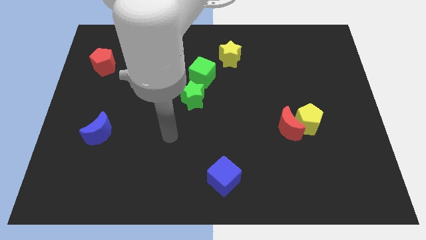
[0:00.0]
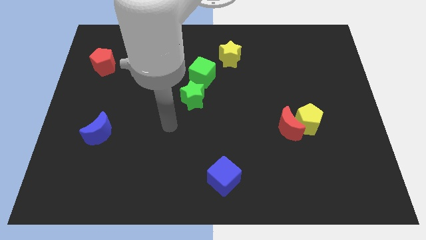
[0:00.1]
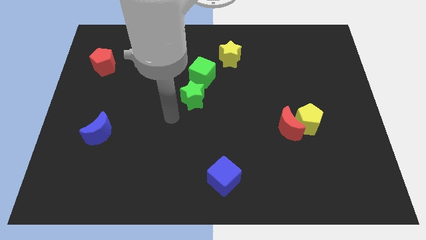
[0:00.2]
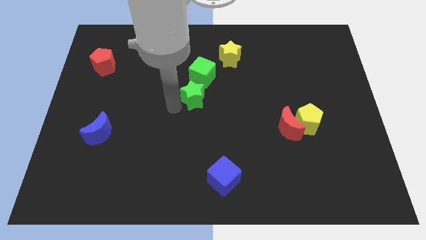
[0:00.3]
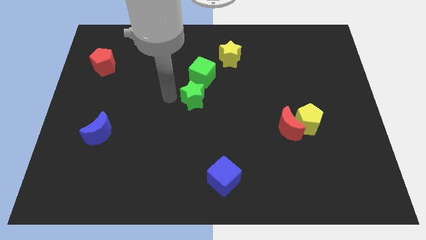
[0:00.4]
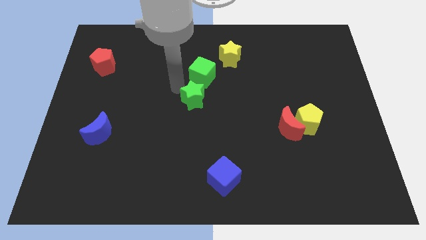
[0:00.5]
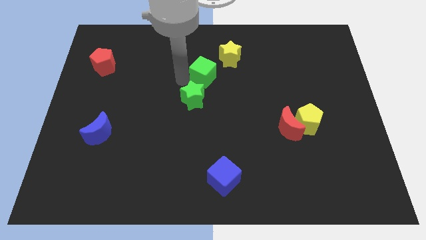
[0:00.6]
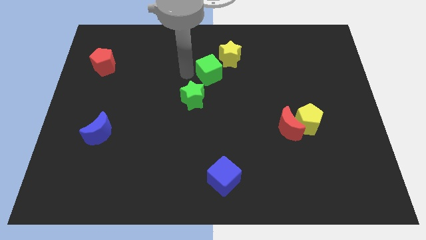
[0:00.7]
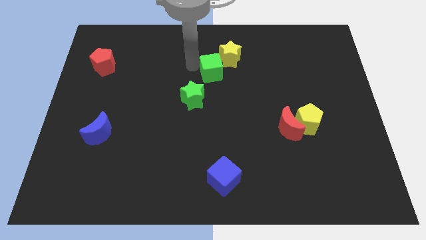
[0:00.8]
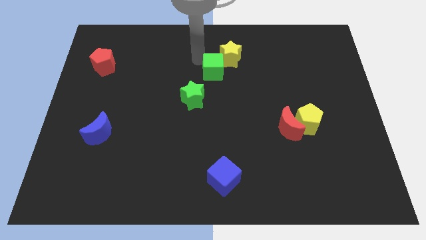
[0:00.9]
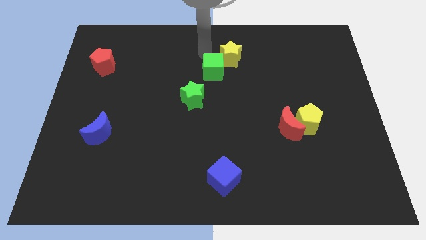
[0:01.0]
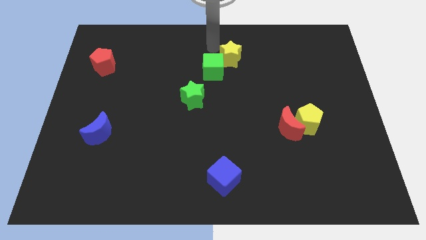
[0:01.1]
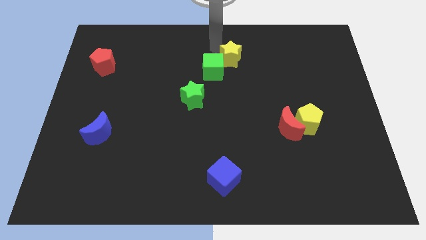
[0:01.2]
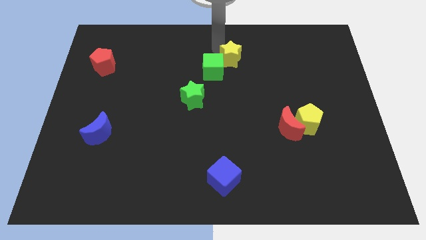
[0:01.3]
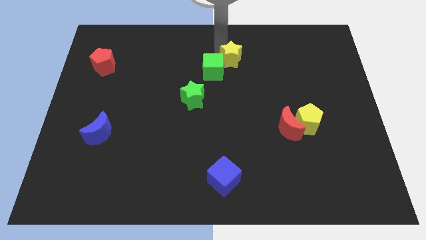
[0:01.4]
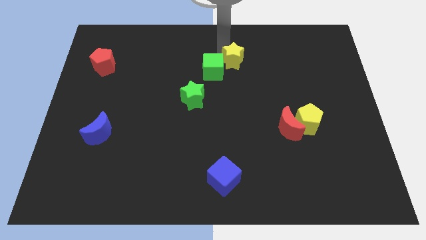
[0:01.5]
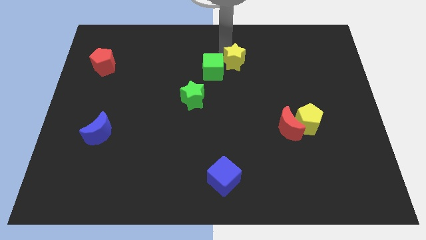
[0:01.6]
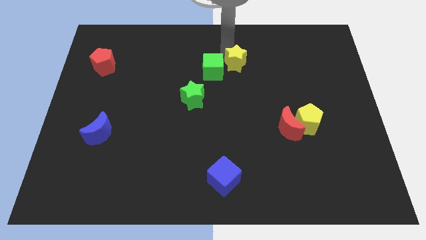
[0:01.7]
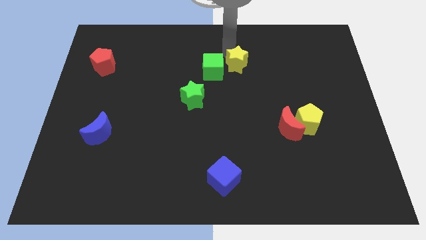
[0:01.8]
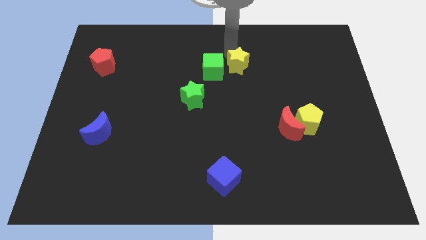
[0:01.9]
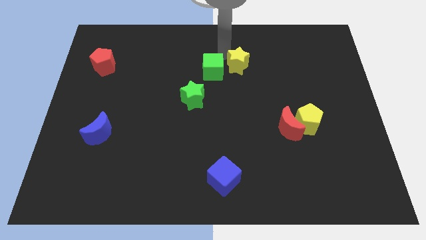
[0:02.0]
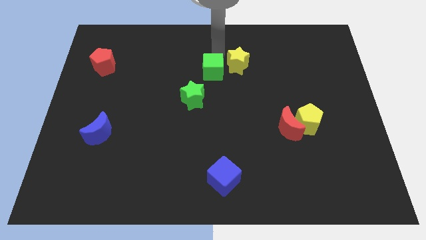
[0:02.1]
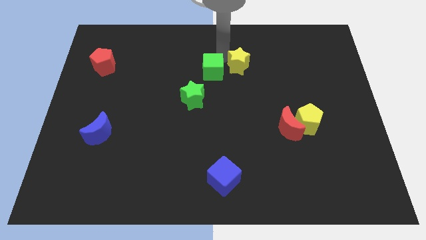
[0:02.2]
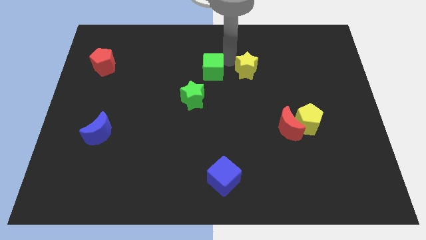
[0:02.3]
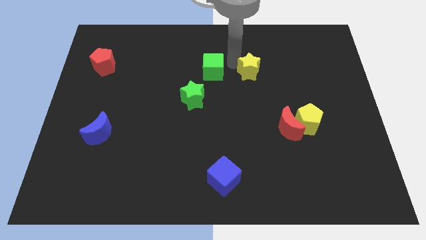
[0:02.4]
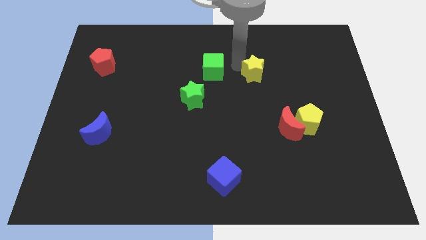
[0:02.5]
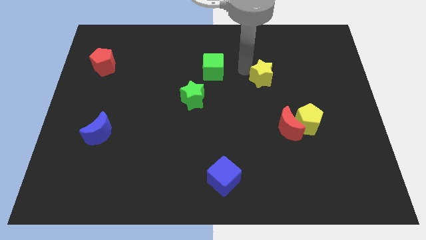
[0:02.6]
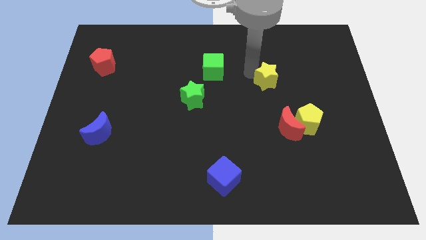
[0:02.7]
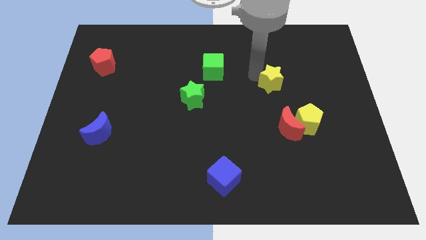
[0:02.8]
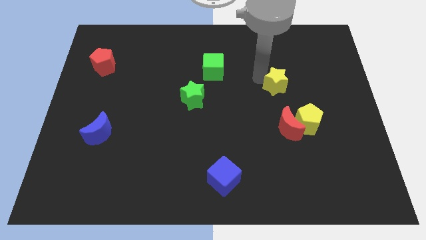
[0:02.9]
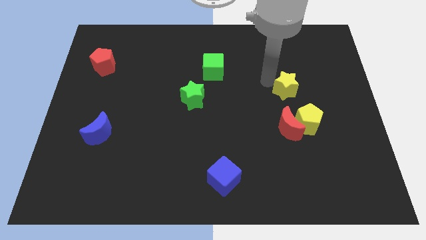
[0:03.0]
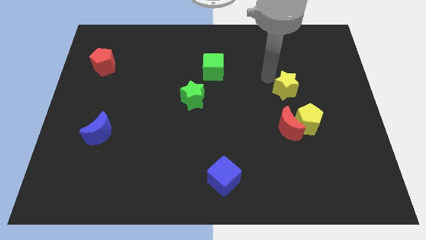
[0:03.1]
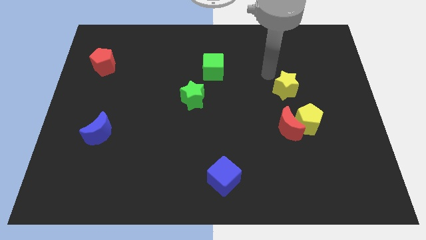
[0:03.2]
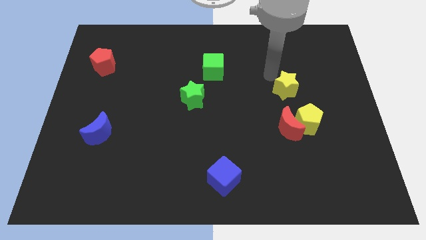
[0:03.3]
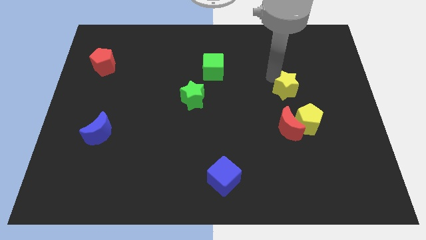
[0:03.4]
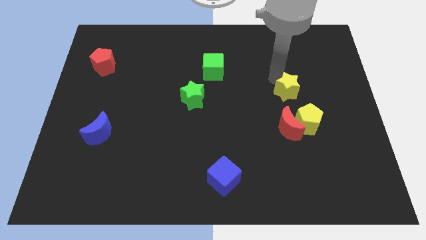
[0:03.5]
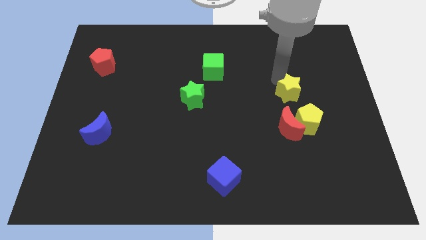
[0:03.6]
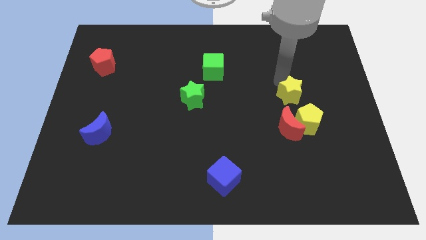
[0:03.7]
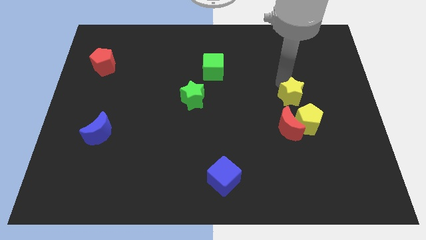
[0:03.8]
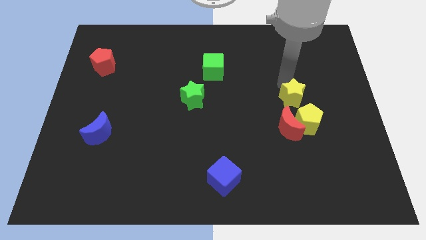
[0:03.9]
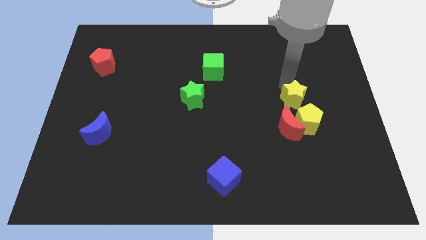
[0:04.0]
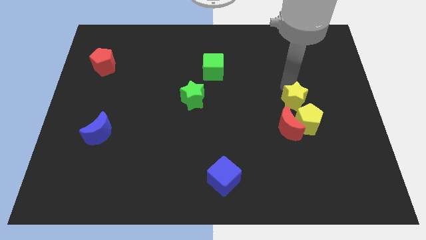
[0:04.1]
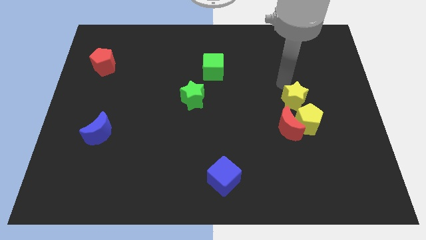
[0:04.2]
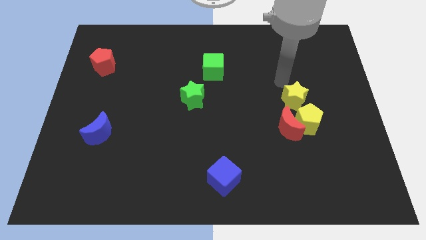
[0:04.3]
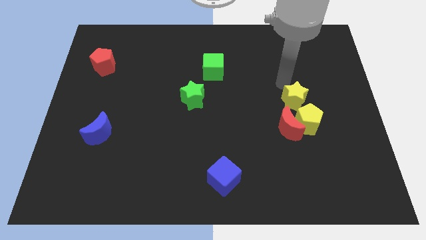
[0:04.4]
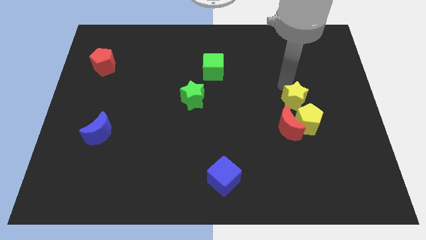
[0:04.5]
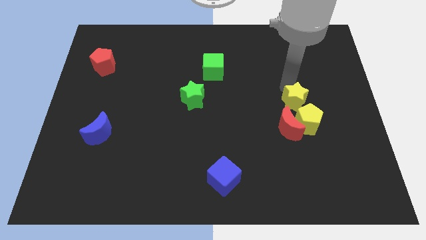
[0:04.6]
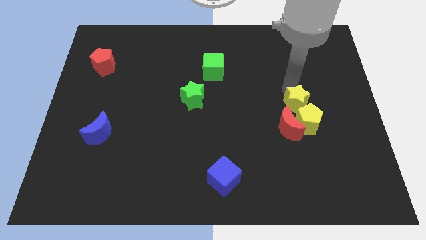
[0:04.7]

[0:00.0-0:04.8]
push the yellow star towards the yellow pentagon

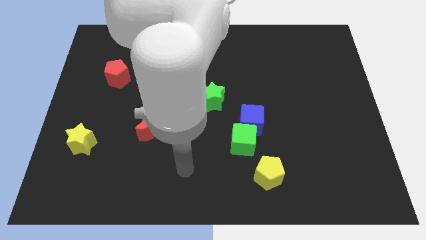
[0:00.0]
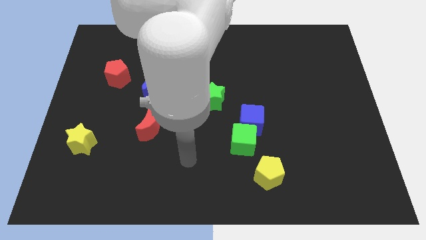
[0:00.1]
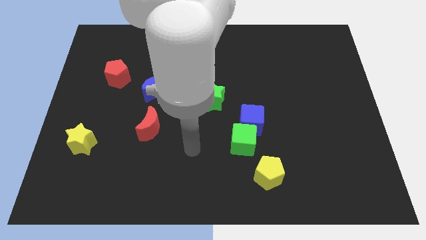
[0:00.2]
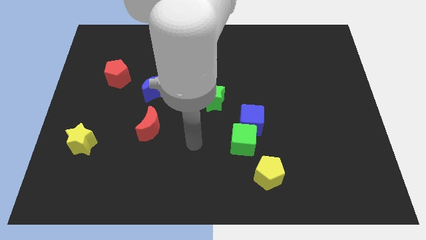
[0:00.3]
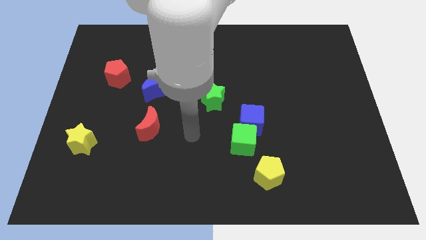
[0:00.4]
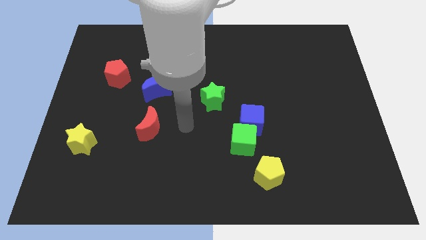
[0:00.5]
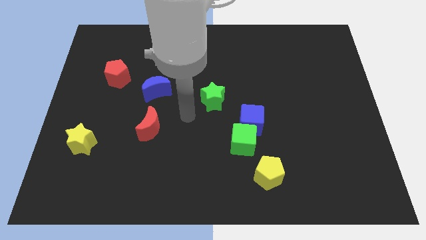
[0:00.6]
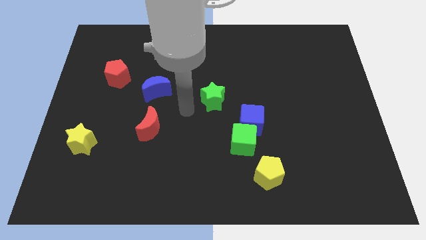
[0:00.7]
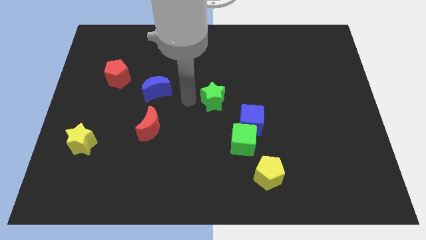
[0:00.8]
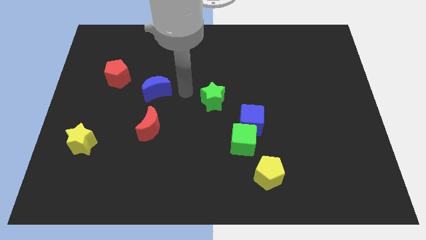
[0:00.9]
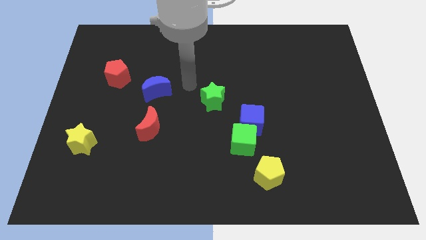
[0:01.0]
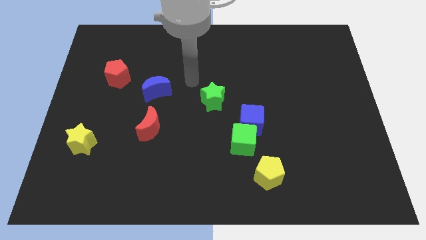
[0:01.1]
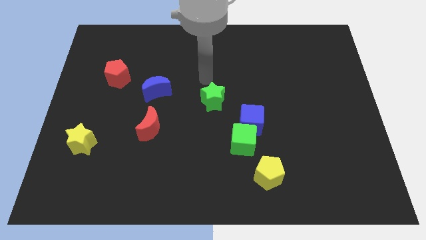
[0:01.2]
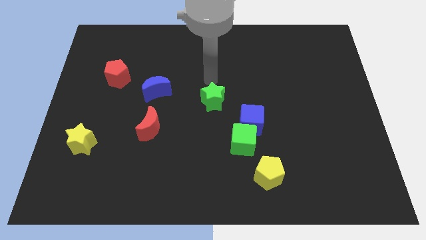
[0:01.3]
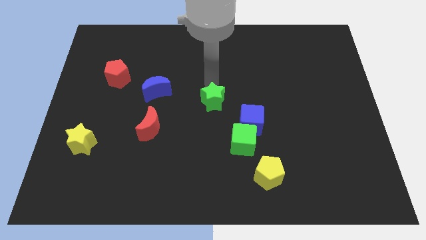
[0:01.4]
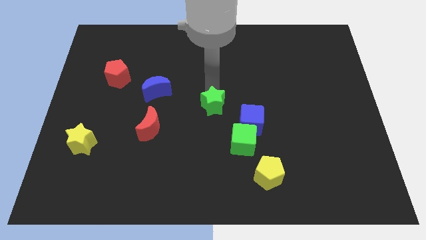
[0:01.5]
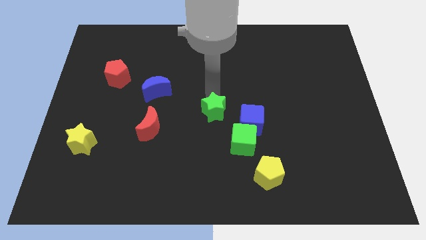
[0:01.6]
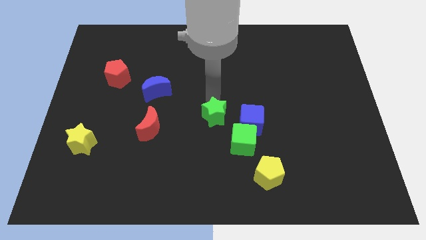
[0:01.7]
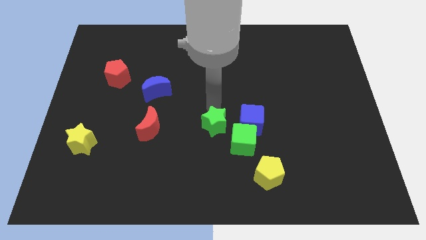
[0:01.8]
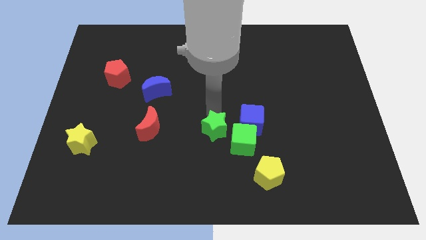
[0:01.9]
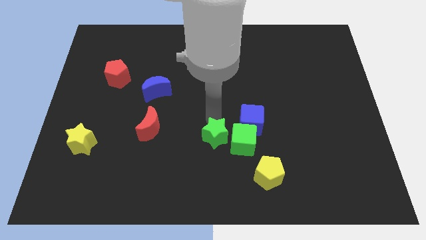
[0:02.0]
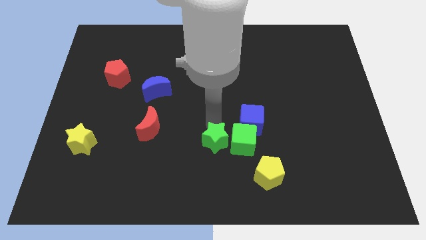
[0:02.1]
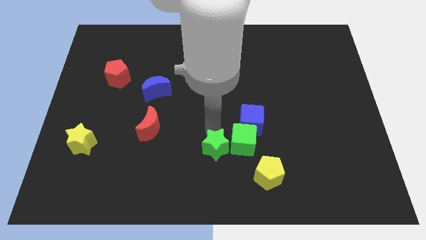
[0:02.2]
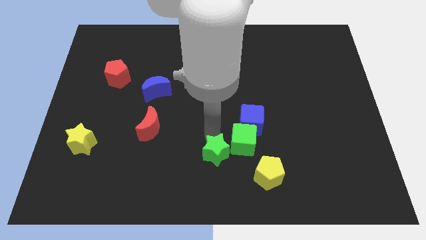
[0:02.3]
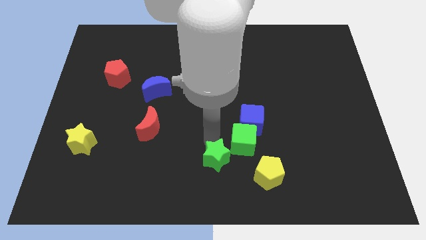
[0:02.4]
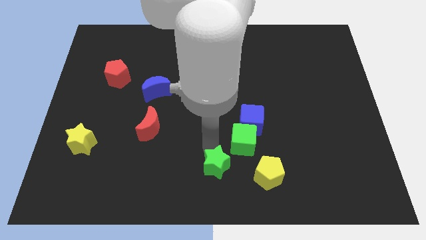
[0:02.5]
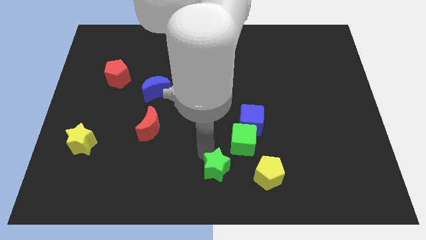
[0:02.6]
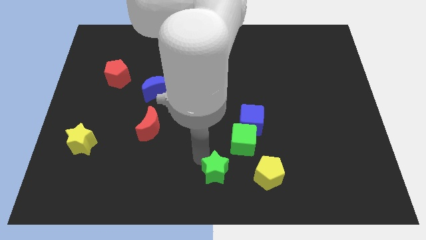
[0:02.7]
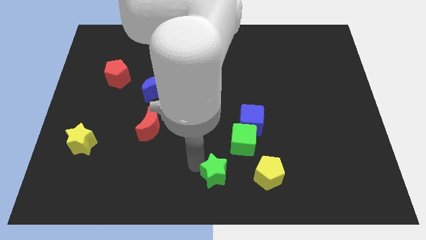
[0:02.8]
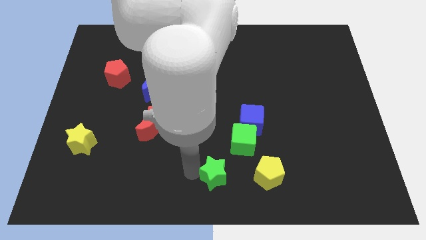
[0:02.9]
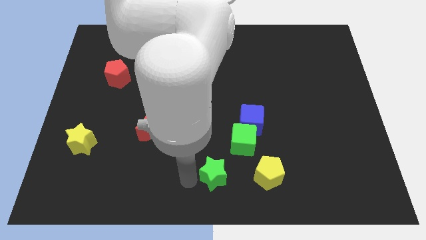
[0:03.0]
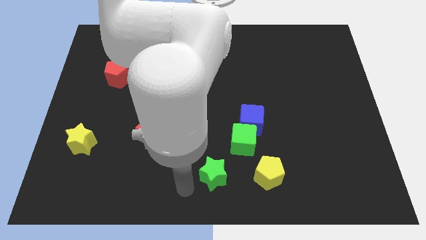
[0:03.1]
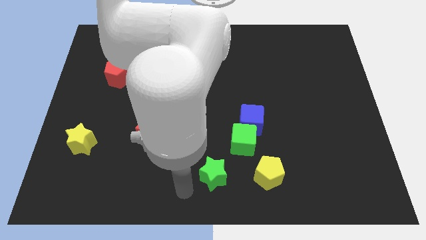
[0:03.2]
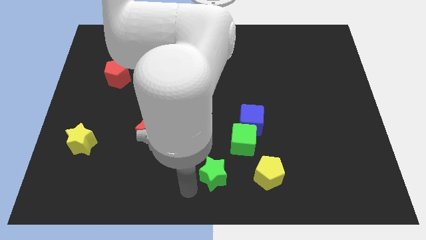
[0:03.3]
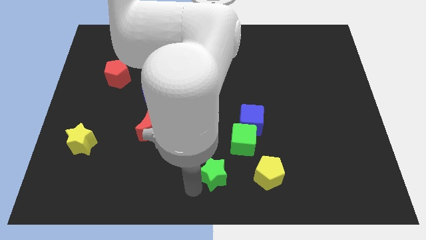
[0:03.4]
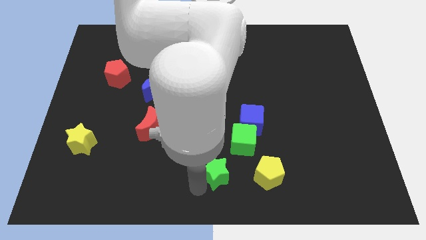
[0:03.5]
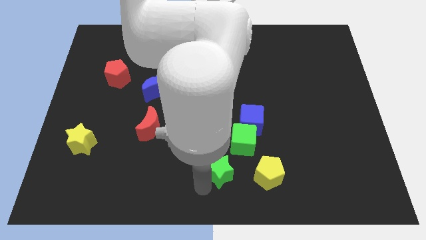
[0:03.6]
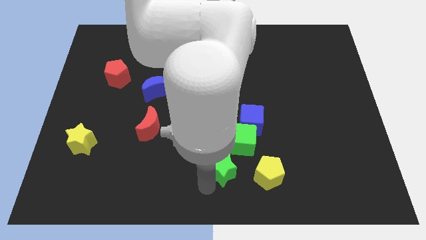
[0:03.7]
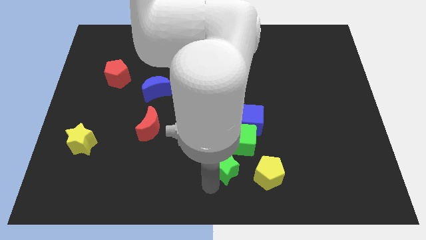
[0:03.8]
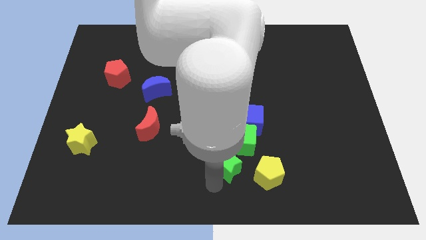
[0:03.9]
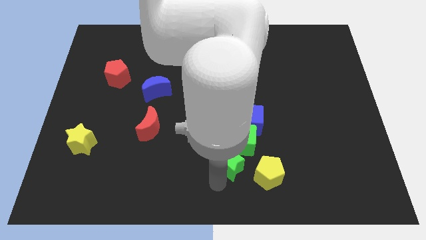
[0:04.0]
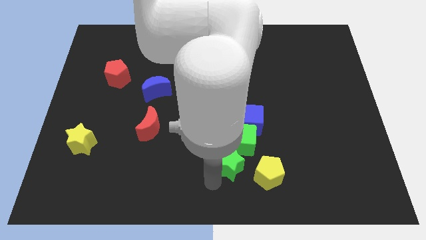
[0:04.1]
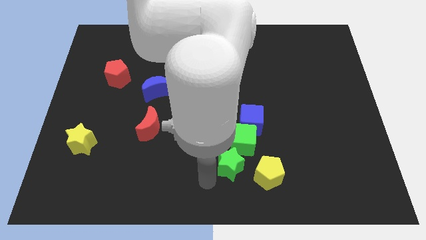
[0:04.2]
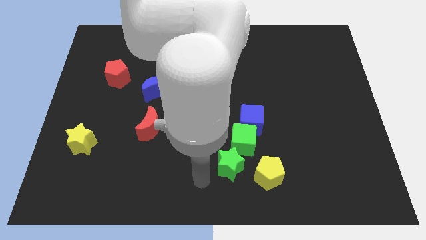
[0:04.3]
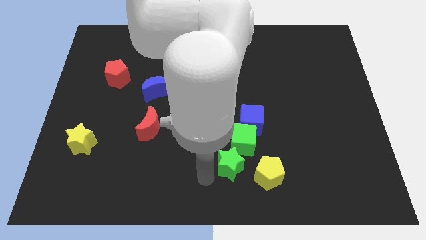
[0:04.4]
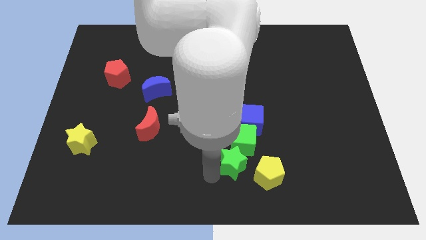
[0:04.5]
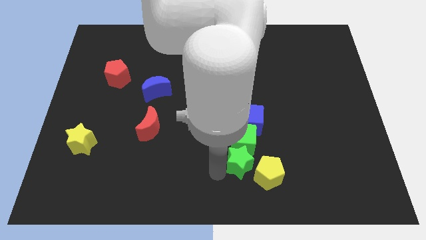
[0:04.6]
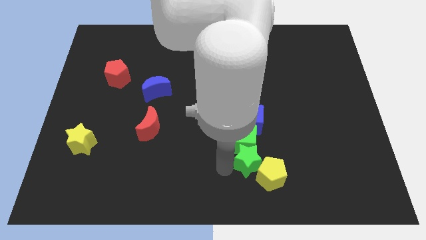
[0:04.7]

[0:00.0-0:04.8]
put the green star to the yellow pentagon
